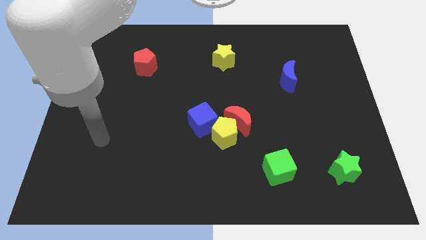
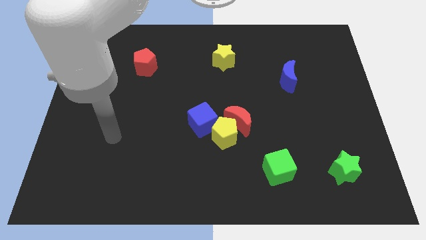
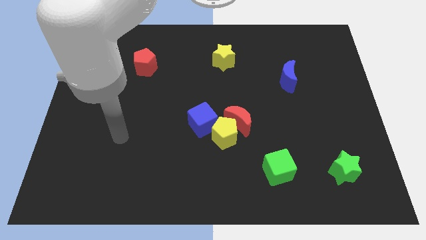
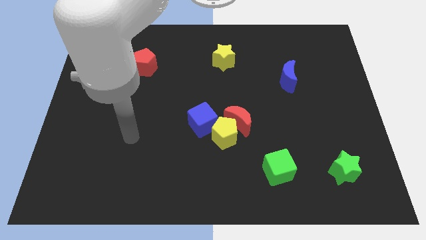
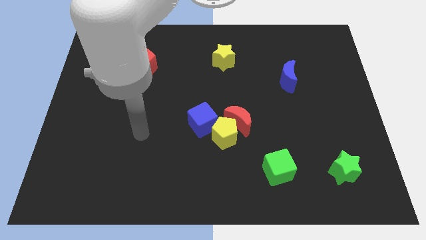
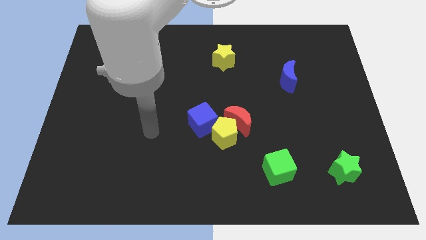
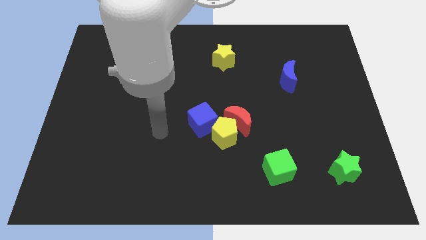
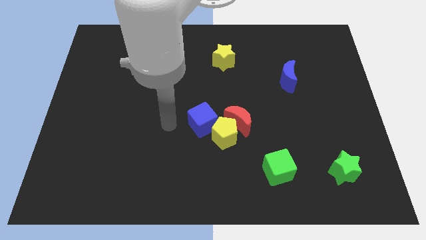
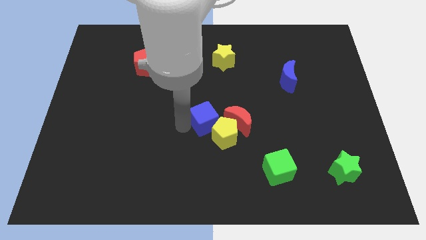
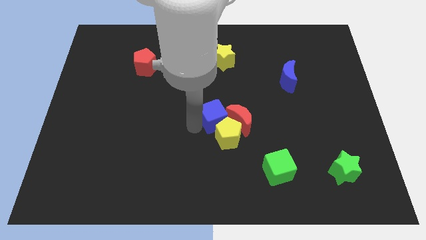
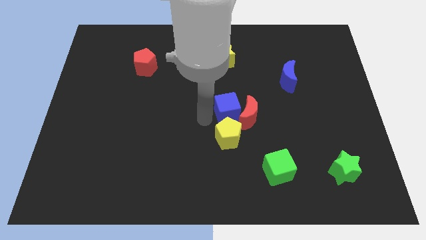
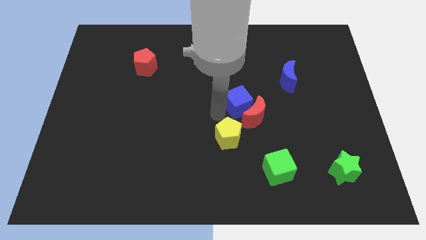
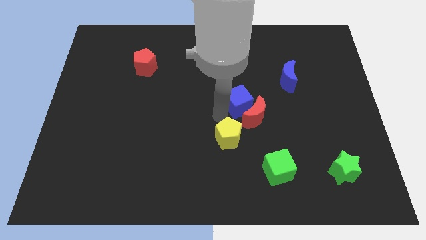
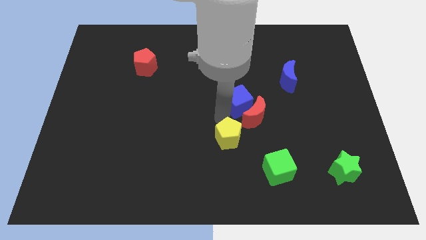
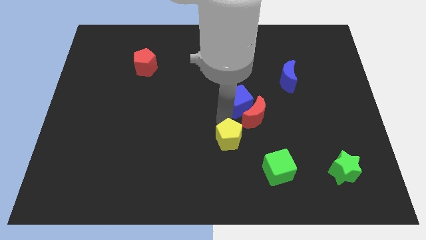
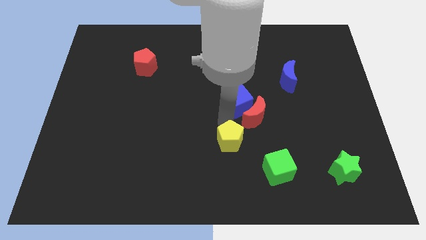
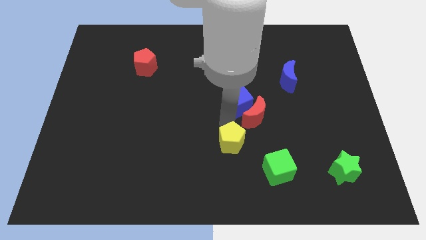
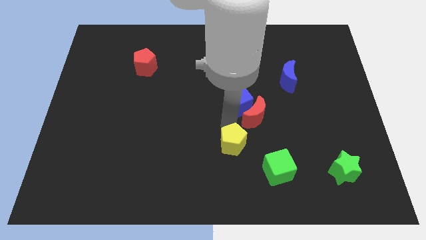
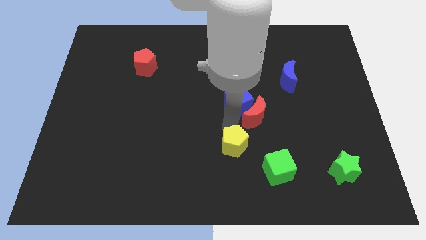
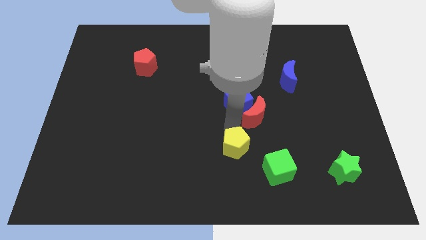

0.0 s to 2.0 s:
pull the yellow pentagon apart from the red moon and blue cube

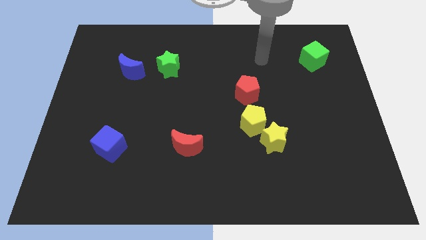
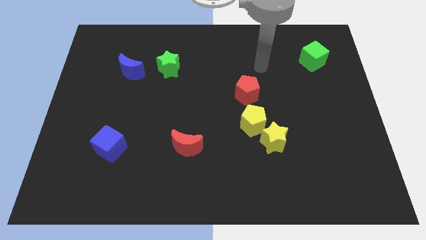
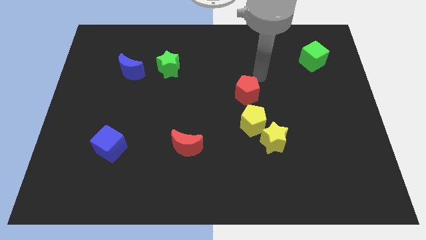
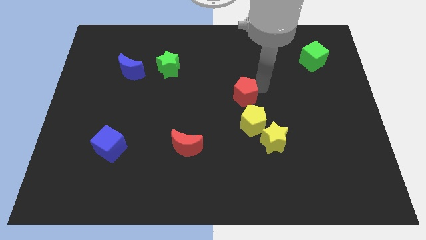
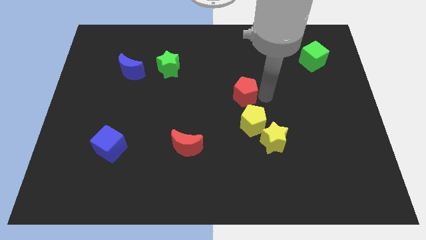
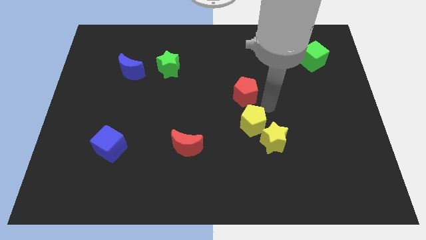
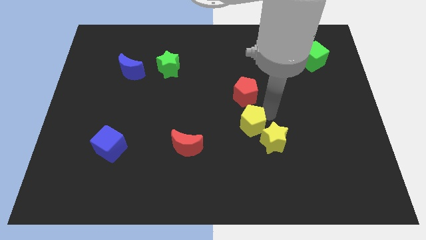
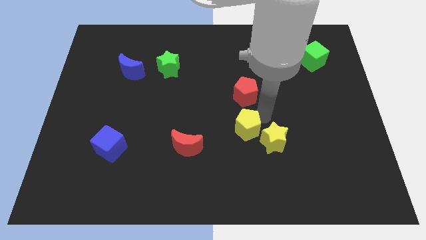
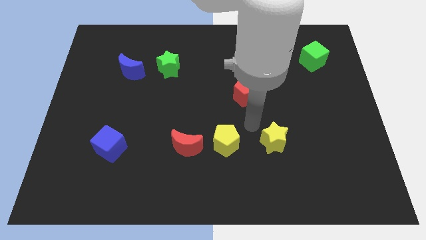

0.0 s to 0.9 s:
separate the yellow star from the yellow pentagon

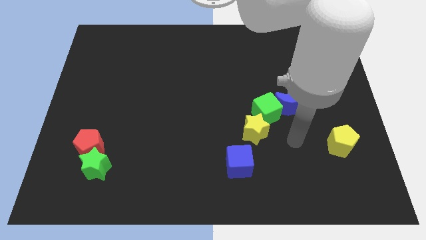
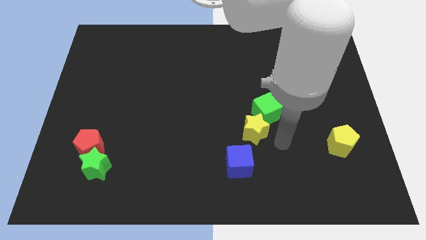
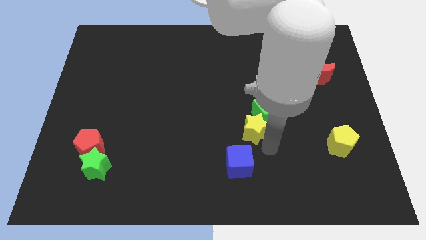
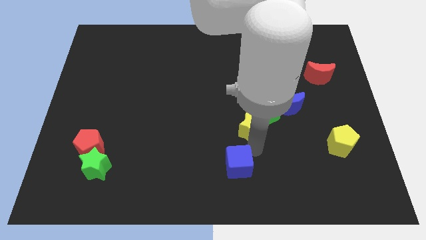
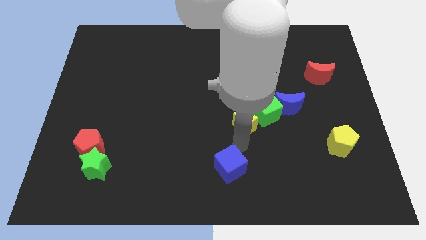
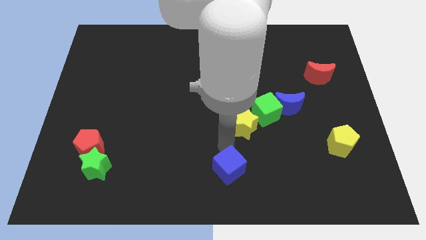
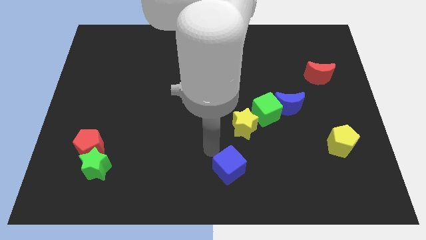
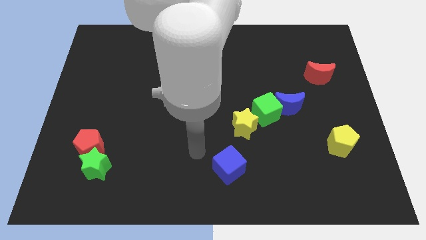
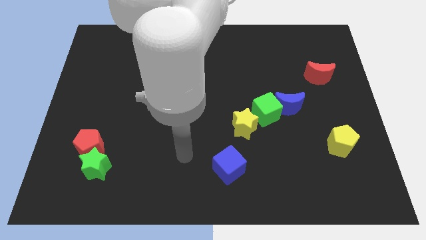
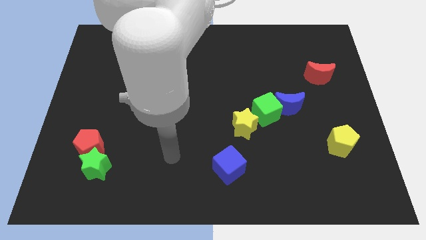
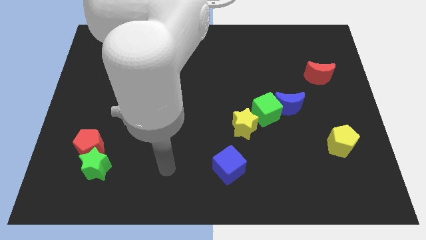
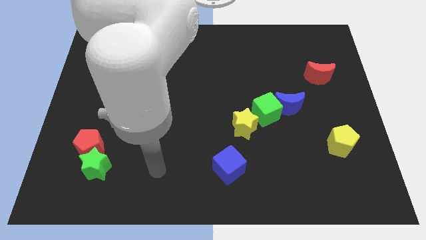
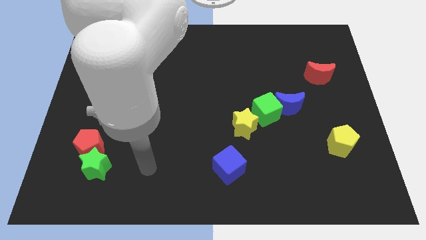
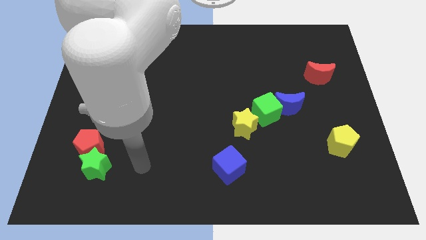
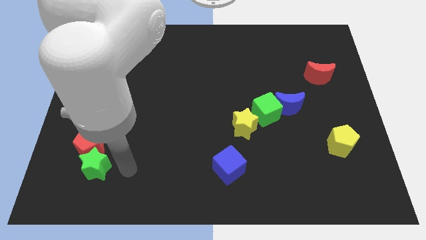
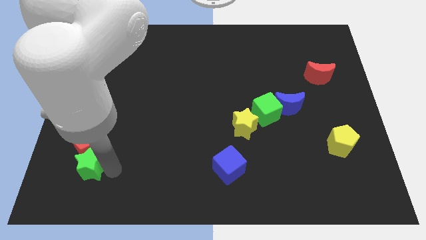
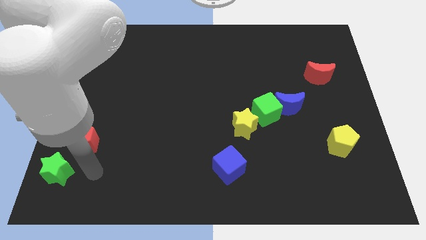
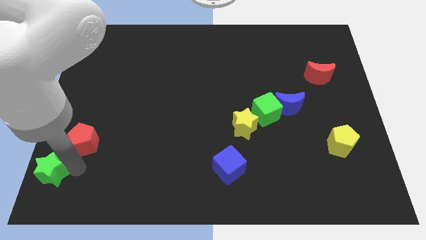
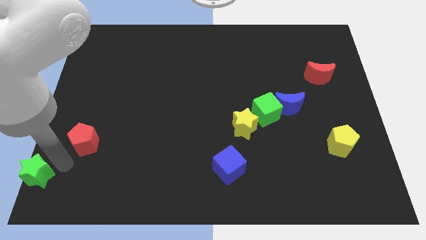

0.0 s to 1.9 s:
separate the red pentagon from the green star

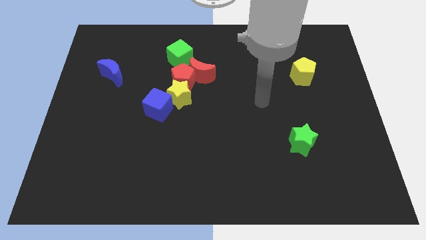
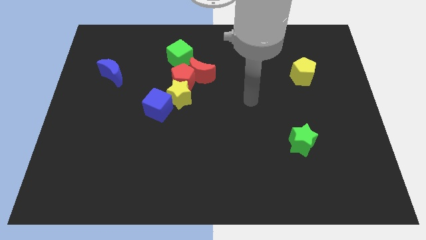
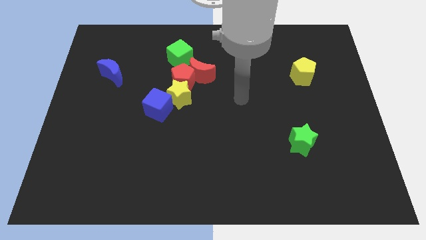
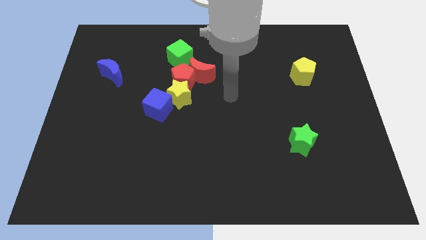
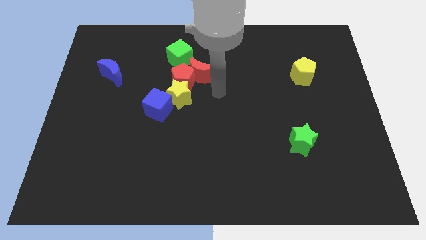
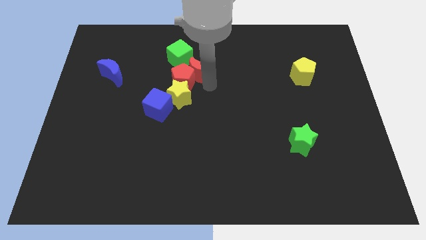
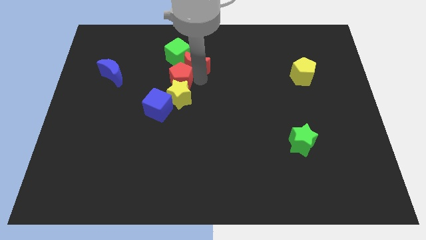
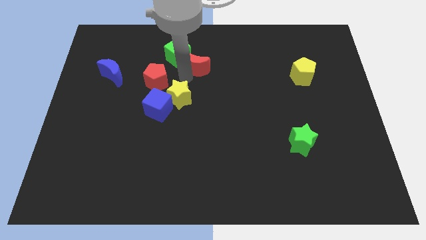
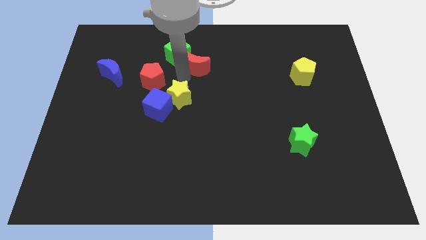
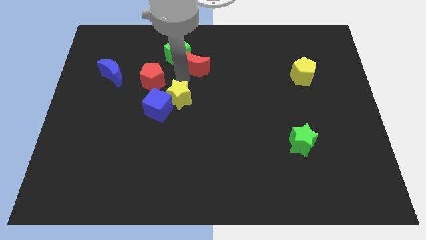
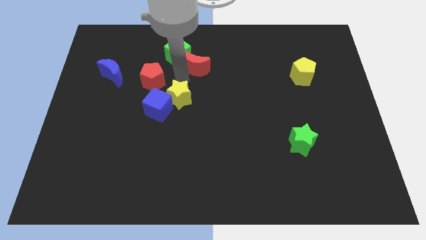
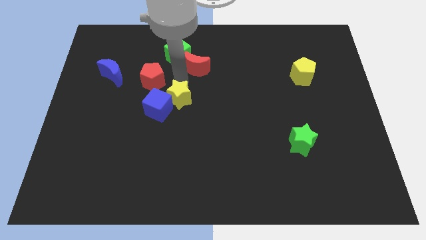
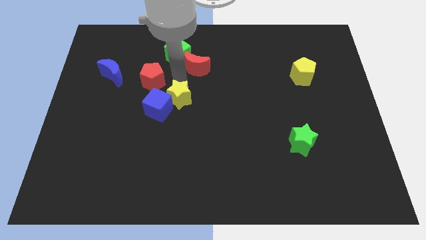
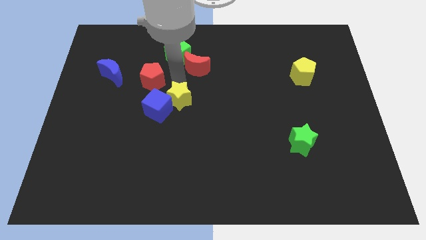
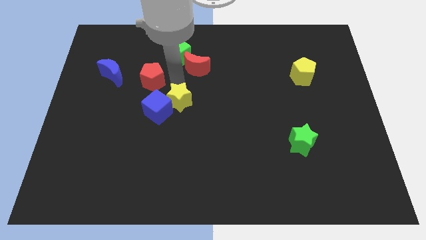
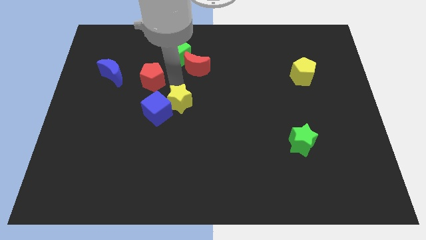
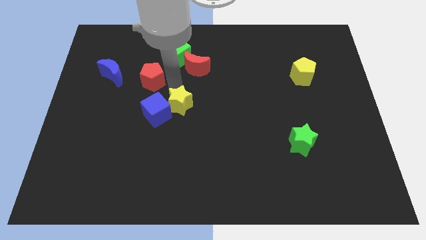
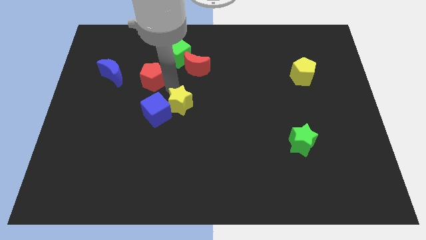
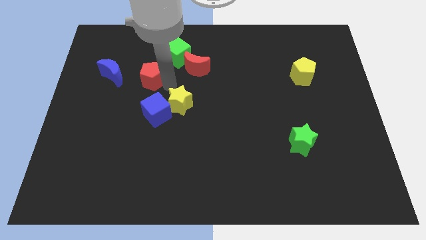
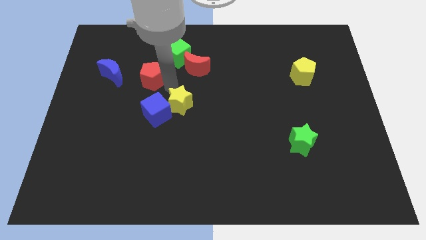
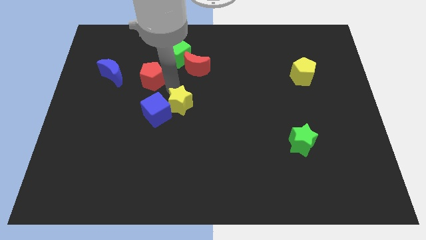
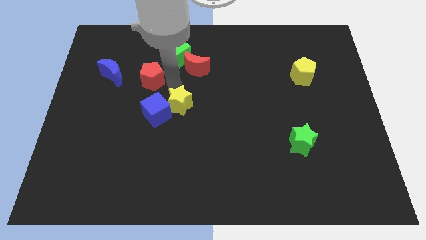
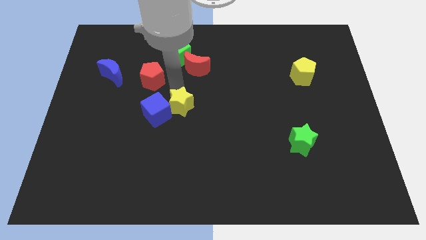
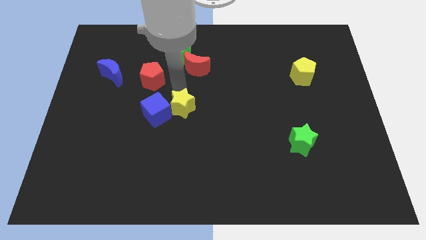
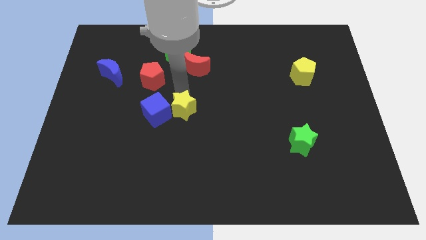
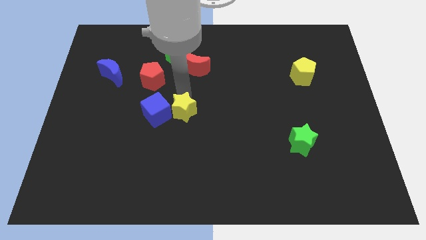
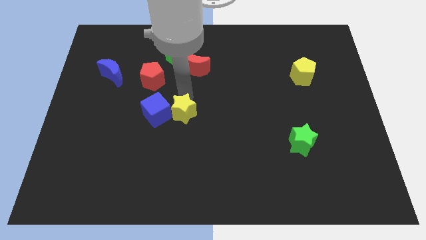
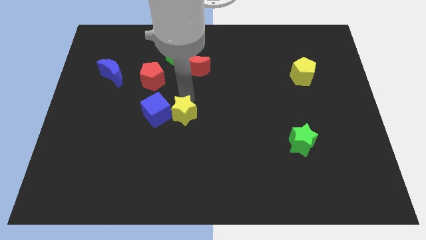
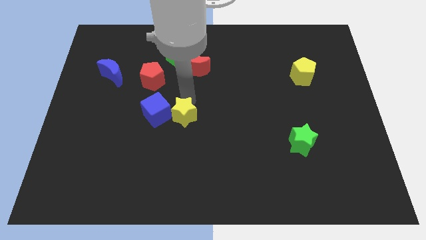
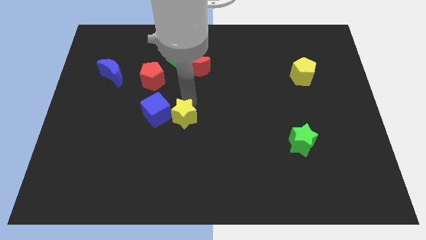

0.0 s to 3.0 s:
pull the yellow star apart from the red pentagon, blue cube, and red moon

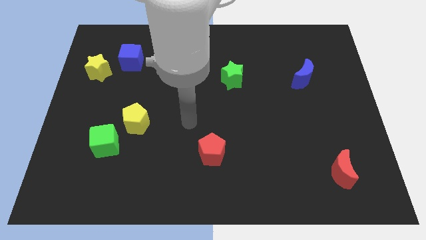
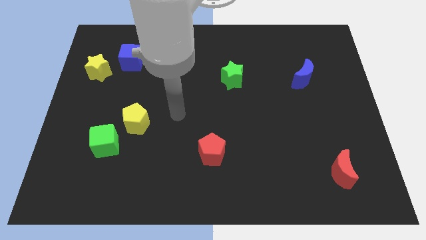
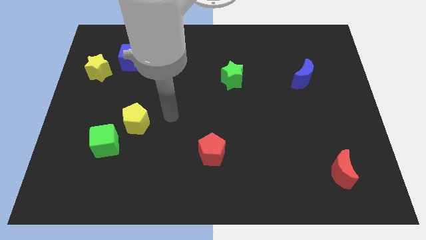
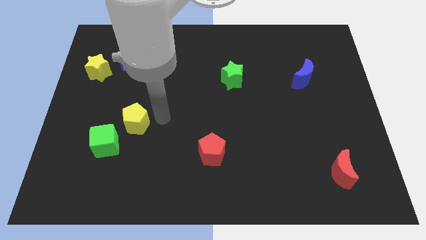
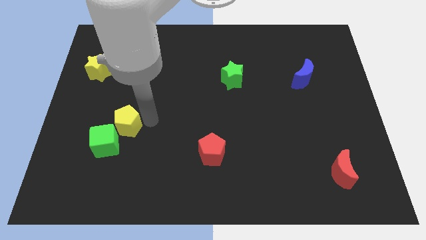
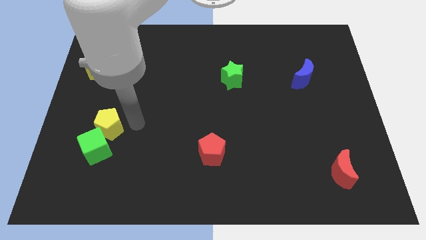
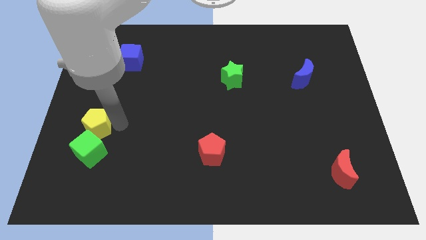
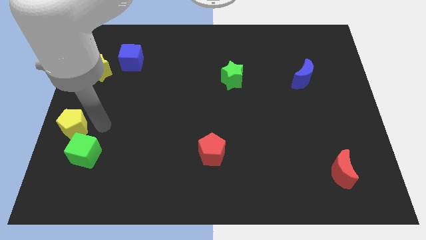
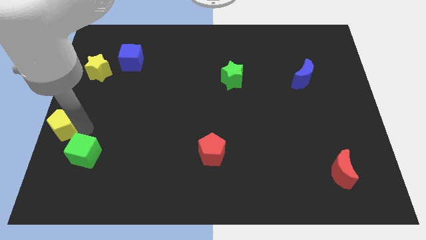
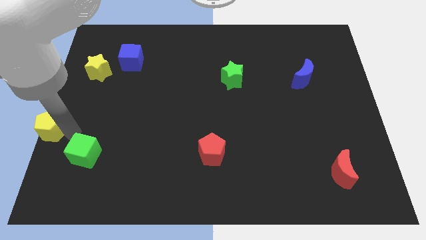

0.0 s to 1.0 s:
move the green cube away from the yellow pentagon

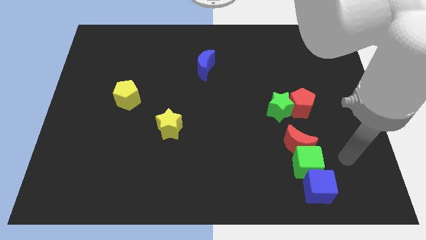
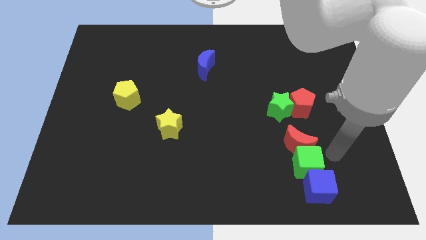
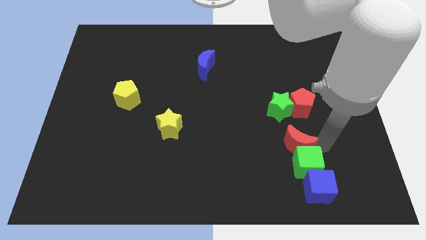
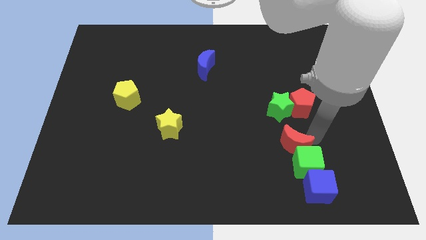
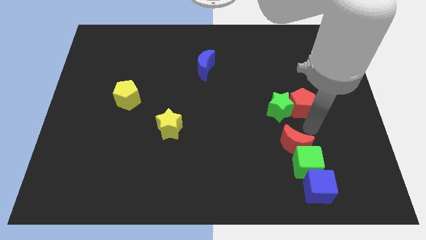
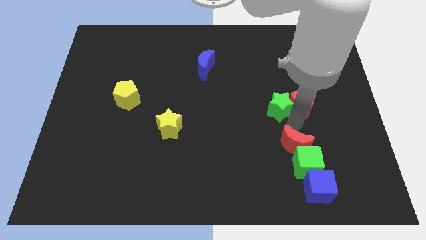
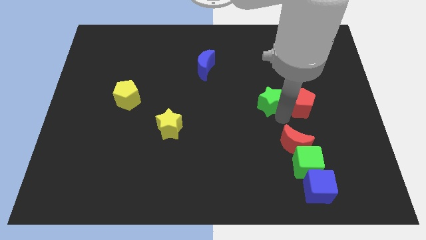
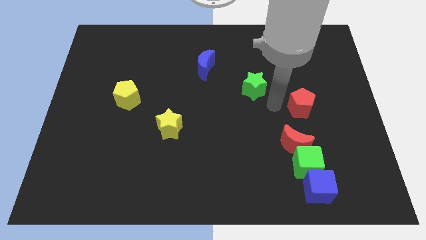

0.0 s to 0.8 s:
move the red pentagon away from the green star
